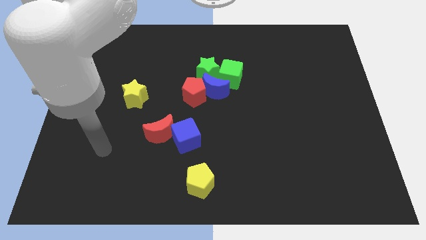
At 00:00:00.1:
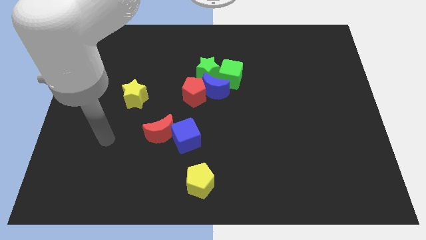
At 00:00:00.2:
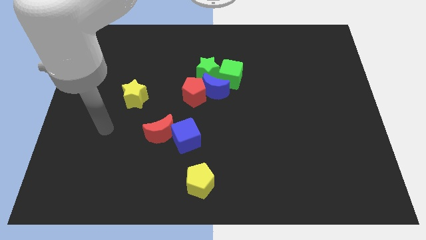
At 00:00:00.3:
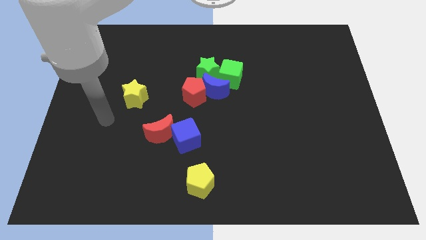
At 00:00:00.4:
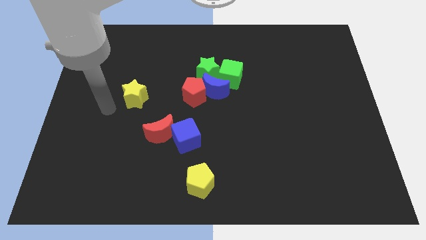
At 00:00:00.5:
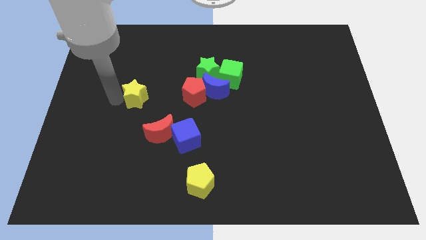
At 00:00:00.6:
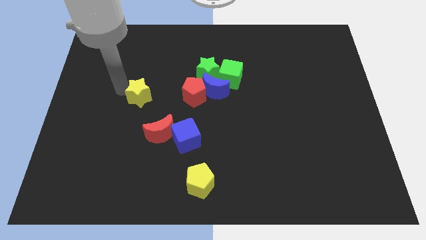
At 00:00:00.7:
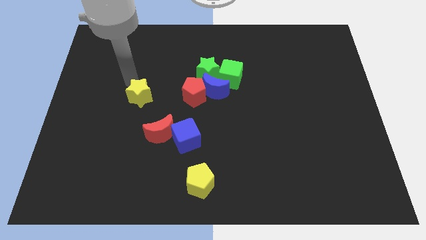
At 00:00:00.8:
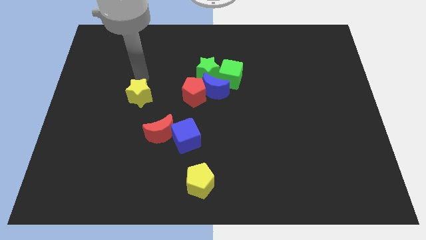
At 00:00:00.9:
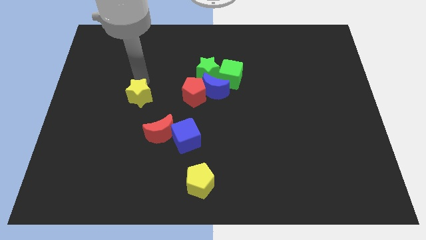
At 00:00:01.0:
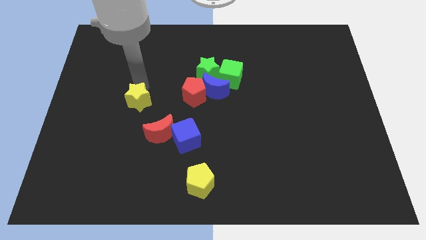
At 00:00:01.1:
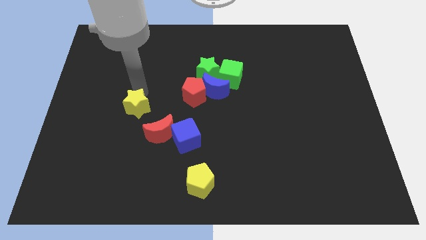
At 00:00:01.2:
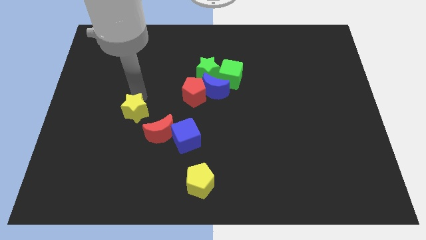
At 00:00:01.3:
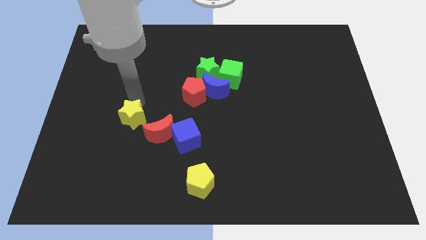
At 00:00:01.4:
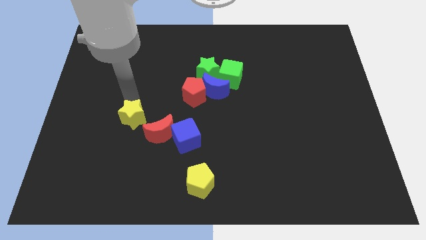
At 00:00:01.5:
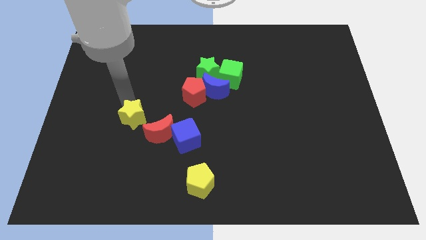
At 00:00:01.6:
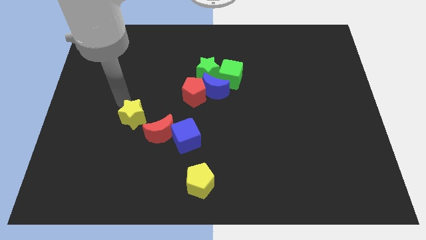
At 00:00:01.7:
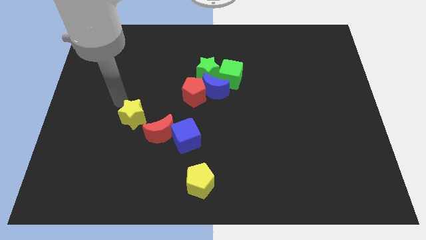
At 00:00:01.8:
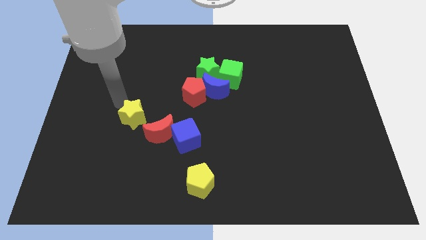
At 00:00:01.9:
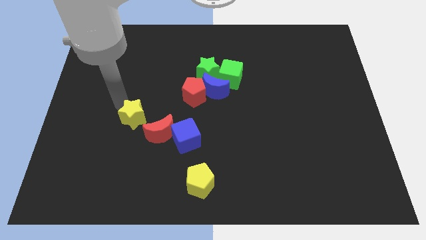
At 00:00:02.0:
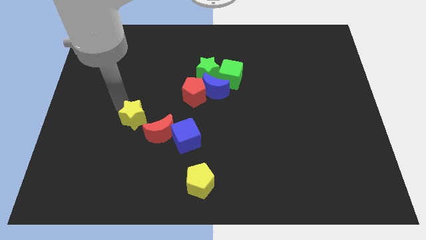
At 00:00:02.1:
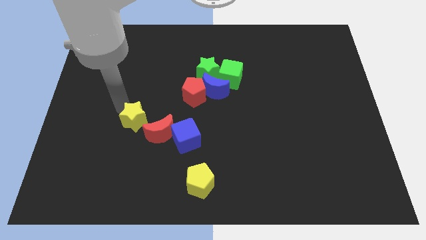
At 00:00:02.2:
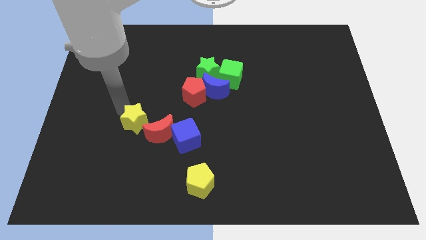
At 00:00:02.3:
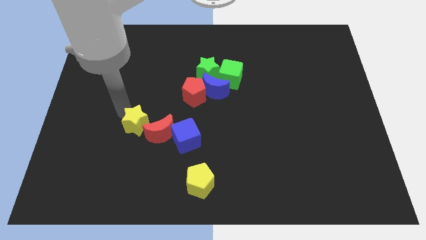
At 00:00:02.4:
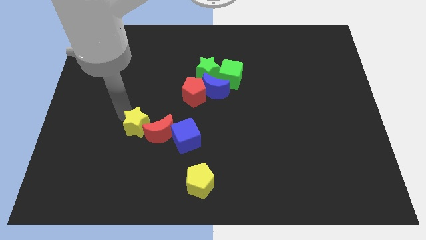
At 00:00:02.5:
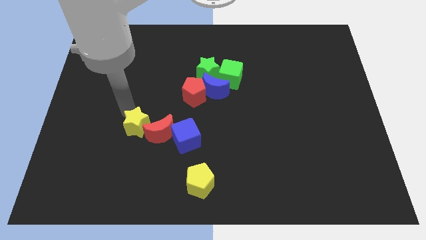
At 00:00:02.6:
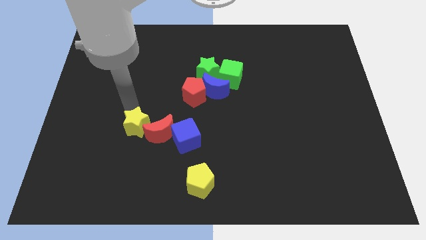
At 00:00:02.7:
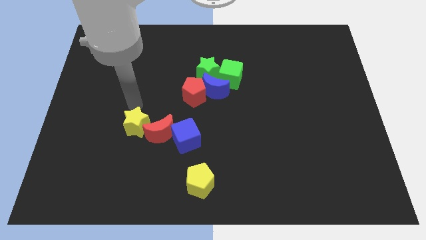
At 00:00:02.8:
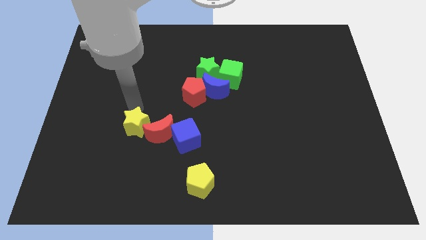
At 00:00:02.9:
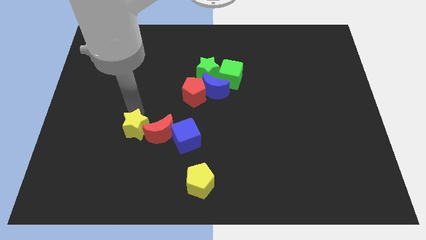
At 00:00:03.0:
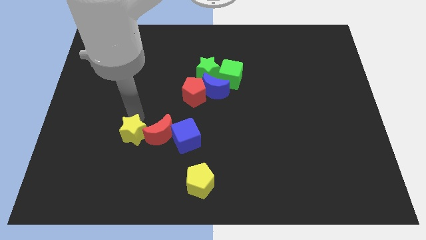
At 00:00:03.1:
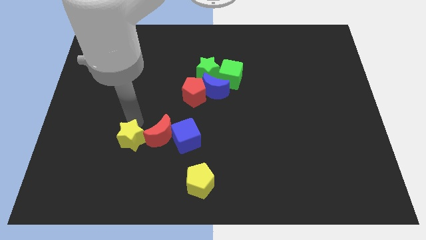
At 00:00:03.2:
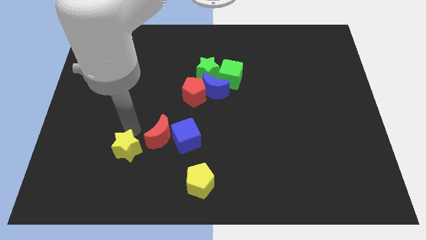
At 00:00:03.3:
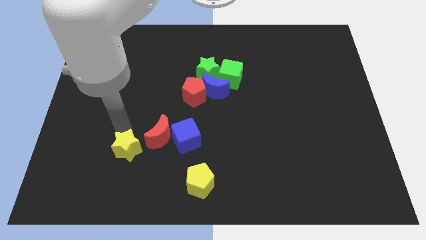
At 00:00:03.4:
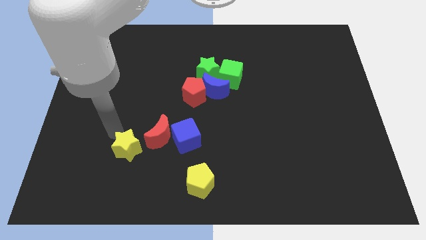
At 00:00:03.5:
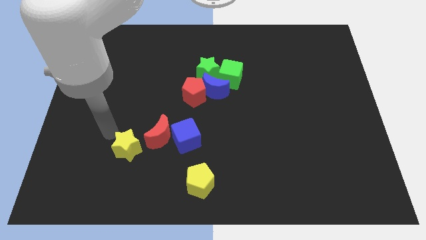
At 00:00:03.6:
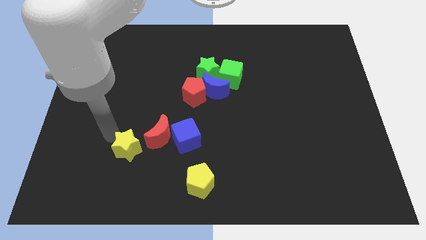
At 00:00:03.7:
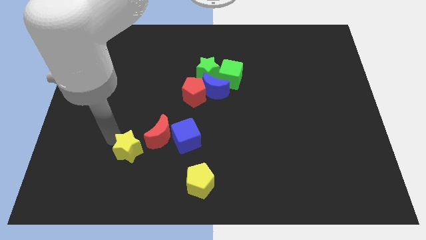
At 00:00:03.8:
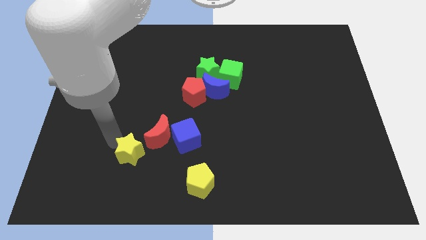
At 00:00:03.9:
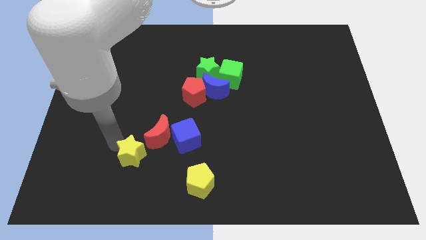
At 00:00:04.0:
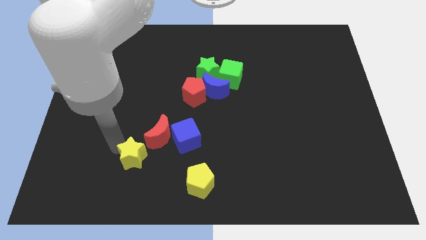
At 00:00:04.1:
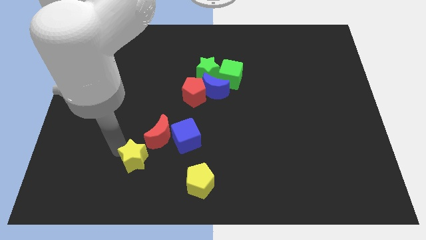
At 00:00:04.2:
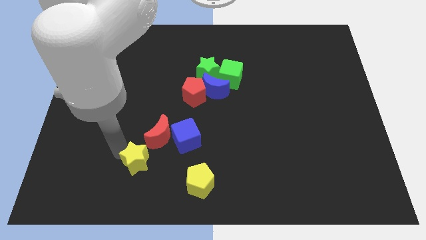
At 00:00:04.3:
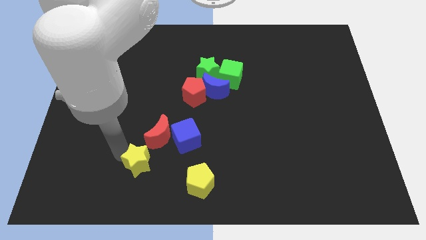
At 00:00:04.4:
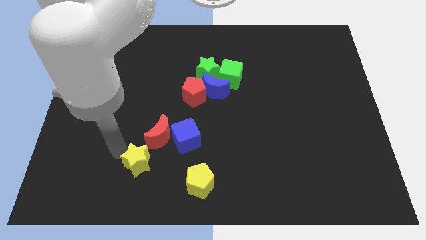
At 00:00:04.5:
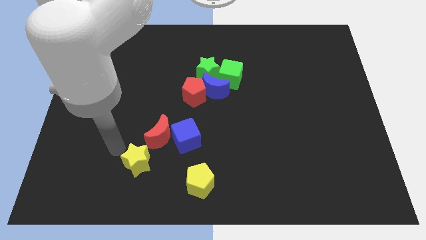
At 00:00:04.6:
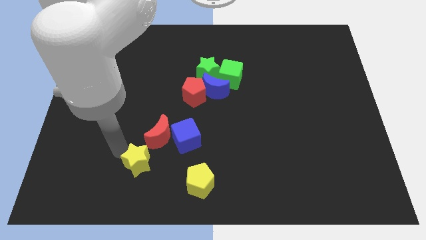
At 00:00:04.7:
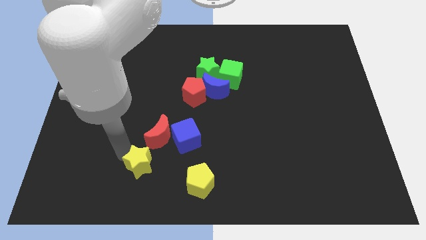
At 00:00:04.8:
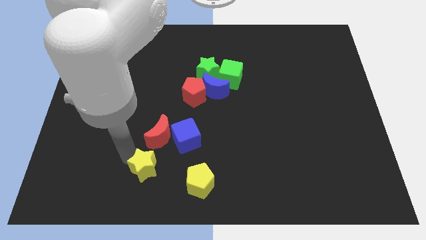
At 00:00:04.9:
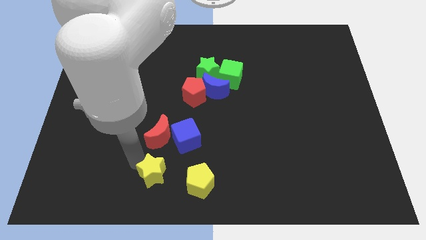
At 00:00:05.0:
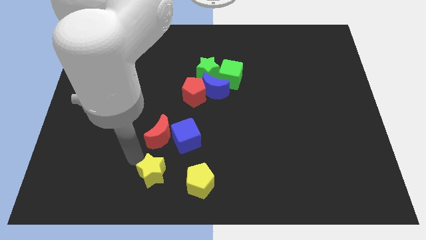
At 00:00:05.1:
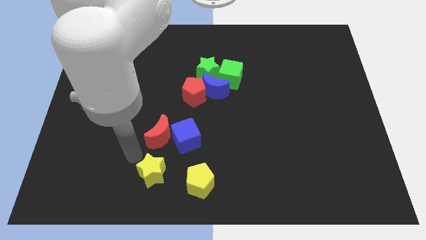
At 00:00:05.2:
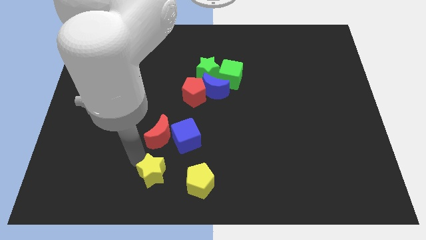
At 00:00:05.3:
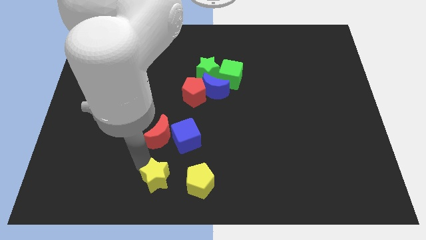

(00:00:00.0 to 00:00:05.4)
slide the yellow star to the bottom
